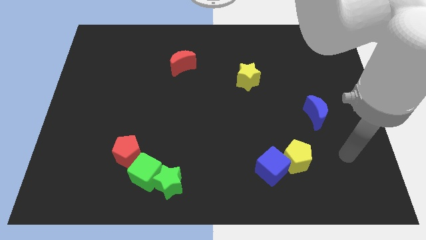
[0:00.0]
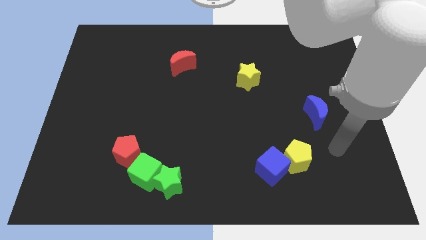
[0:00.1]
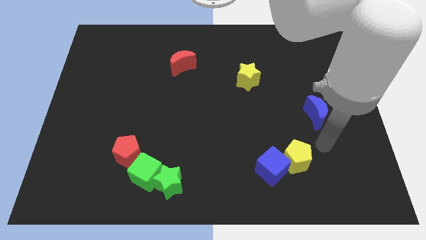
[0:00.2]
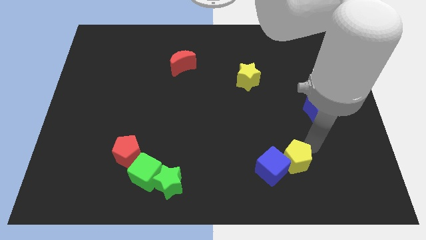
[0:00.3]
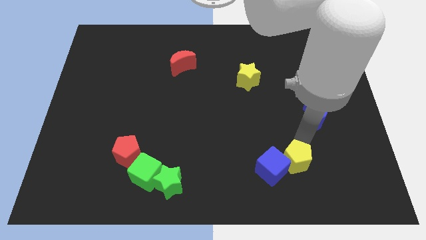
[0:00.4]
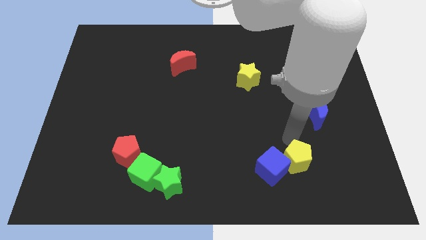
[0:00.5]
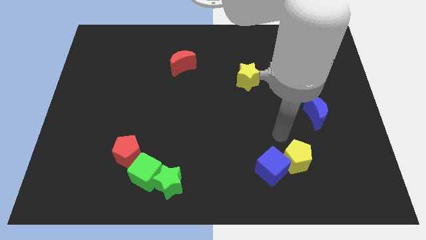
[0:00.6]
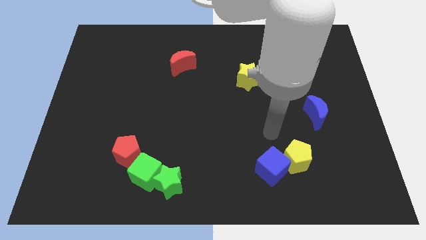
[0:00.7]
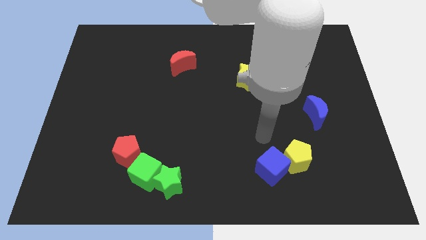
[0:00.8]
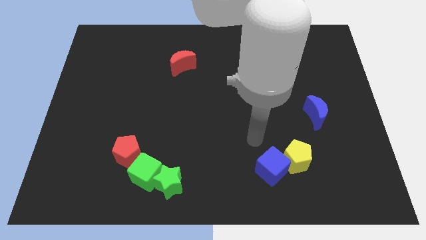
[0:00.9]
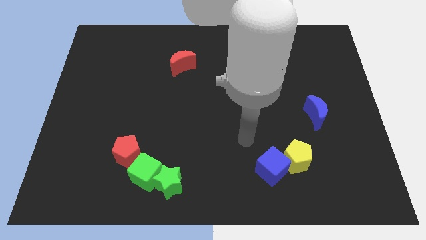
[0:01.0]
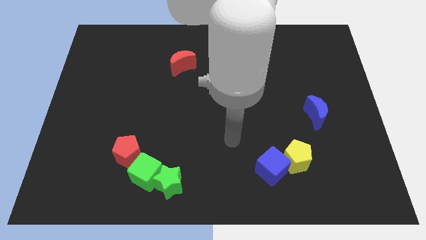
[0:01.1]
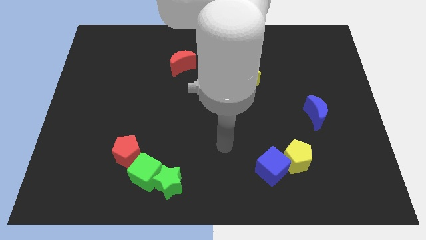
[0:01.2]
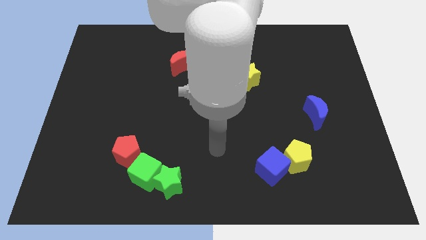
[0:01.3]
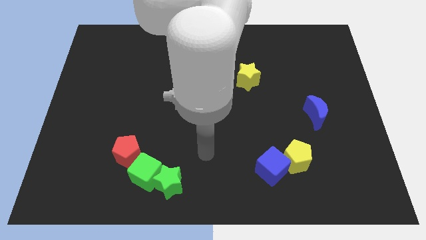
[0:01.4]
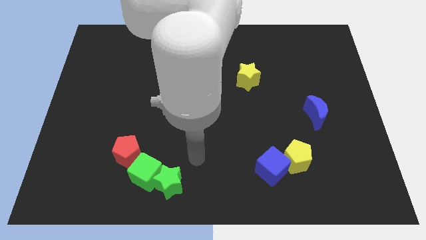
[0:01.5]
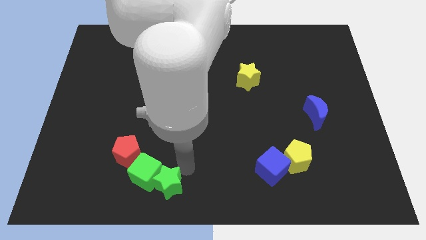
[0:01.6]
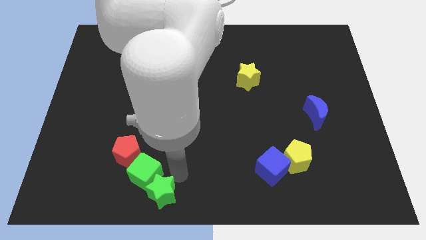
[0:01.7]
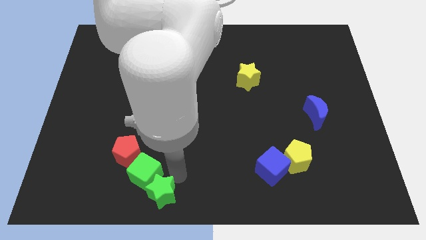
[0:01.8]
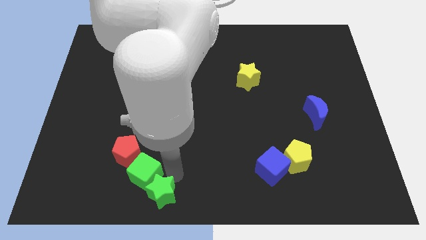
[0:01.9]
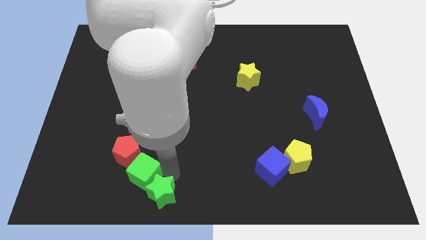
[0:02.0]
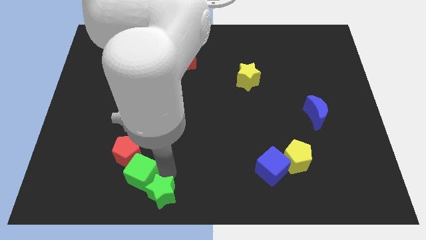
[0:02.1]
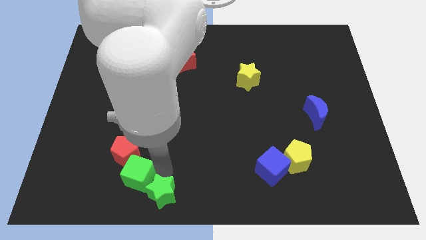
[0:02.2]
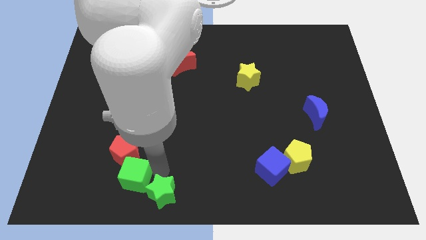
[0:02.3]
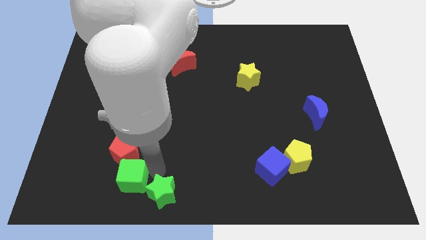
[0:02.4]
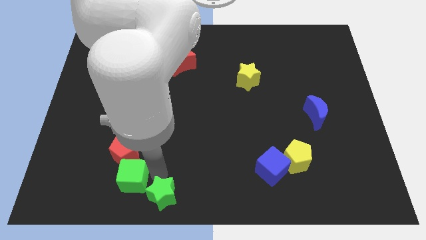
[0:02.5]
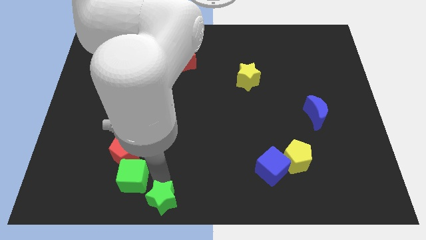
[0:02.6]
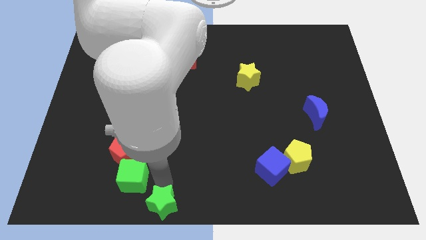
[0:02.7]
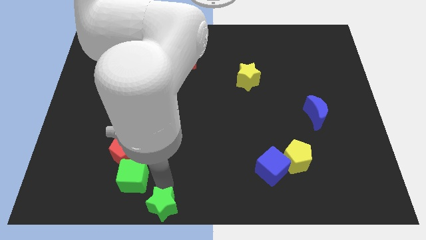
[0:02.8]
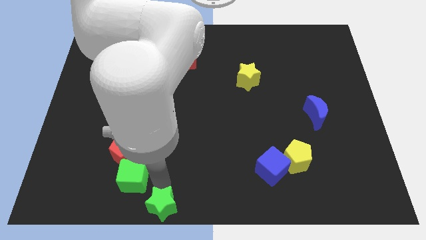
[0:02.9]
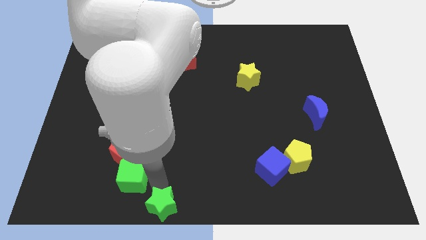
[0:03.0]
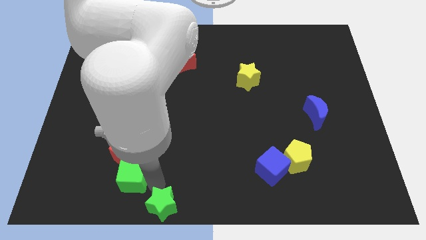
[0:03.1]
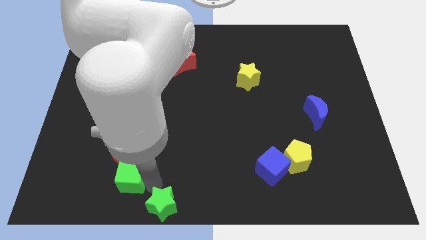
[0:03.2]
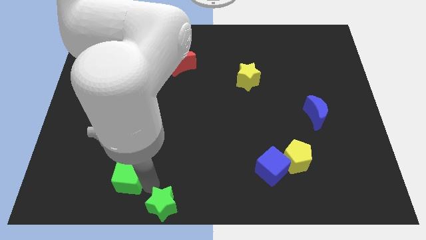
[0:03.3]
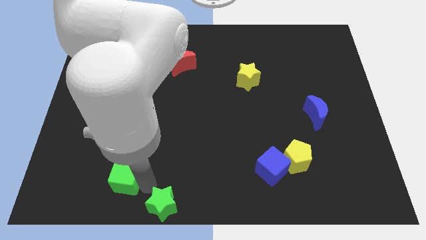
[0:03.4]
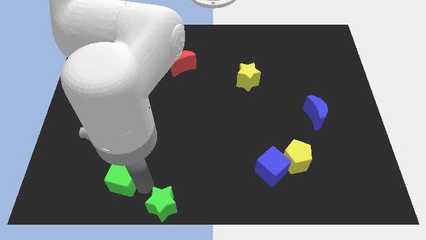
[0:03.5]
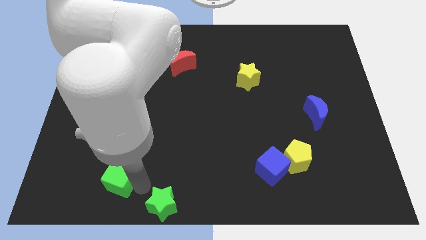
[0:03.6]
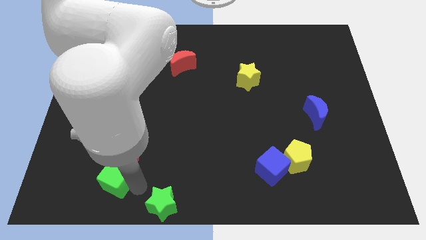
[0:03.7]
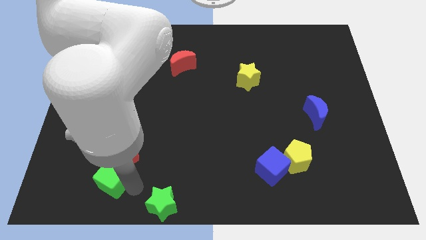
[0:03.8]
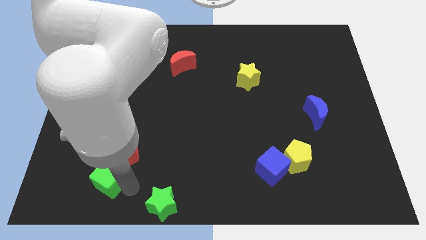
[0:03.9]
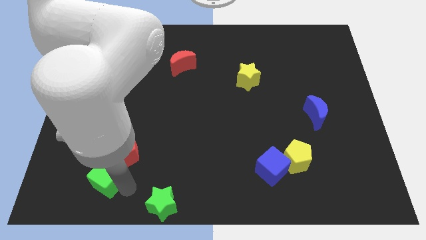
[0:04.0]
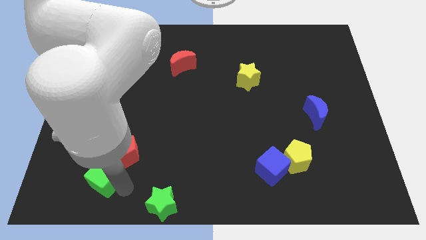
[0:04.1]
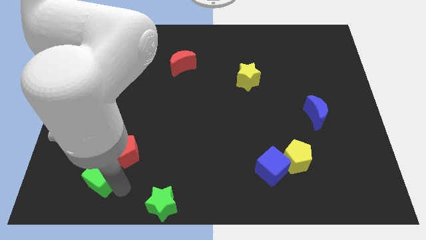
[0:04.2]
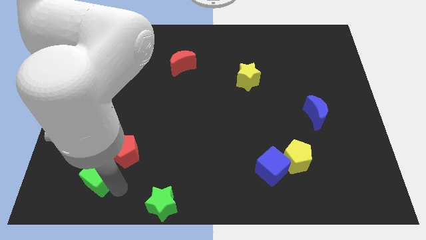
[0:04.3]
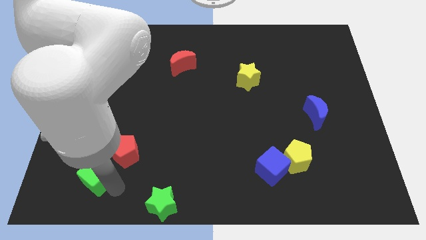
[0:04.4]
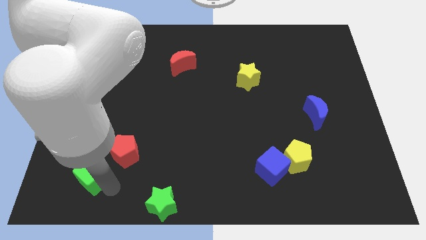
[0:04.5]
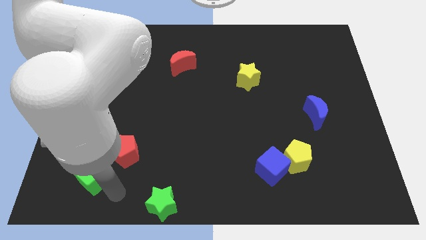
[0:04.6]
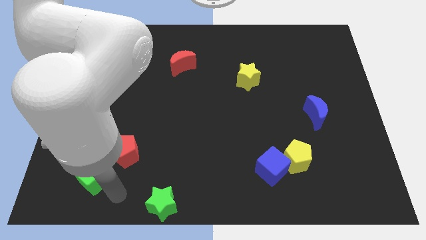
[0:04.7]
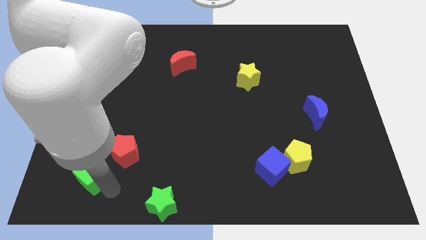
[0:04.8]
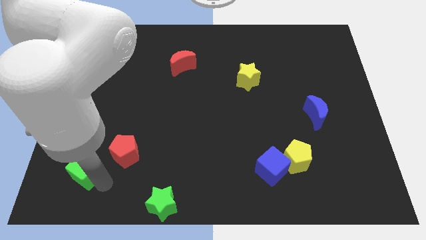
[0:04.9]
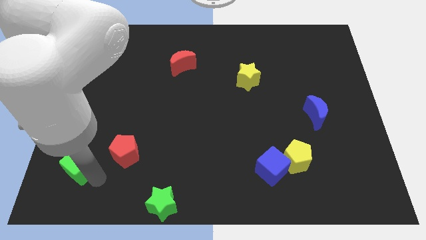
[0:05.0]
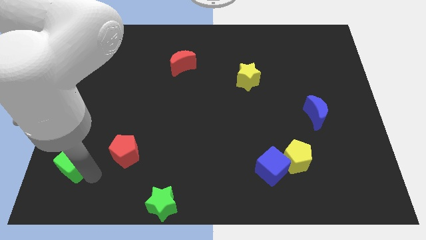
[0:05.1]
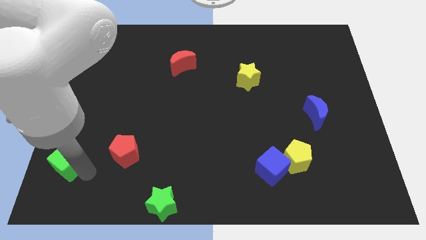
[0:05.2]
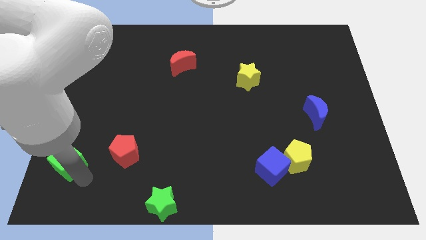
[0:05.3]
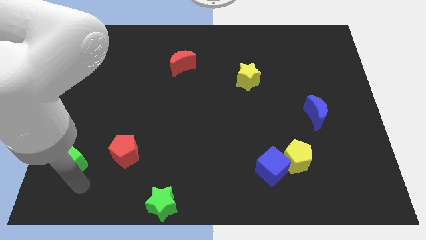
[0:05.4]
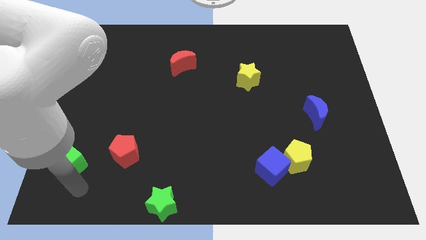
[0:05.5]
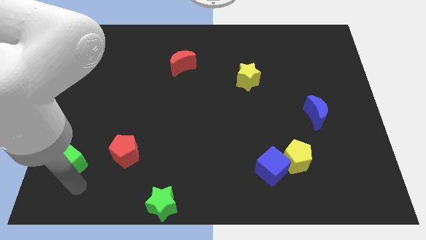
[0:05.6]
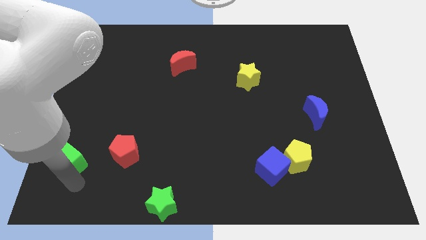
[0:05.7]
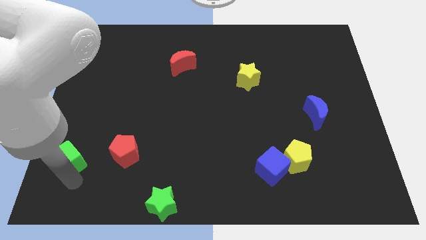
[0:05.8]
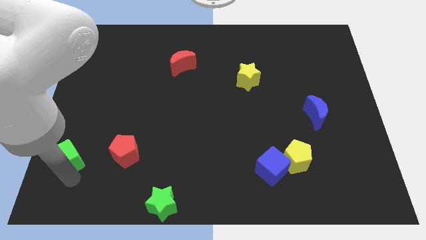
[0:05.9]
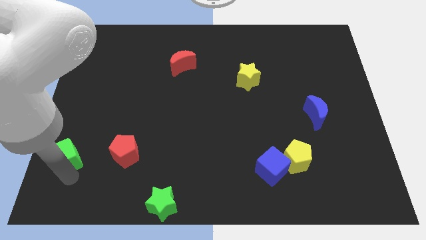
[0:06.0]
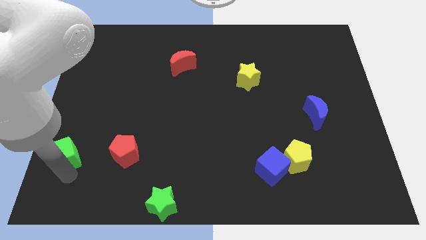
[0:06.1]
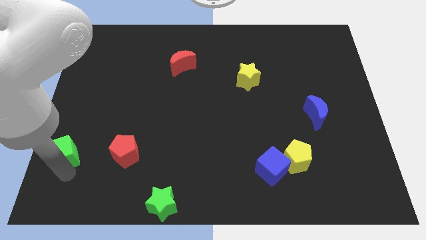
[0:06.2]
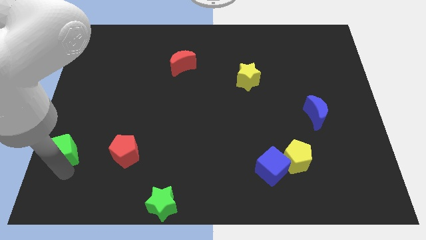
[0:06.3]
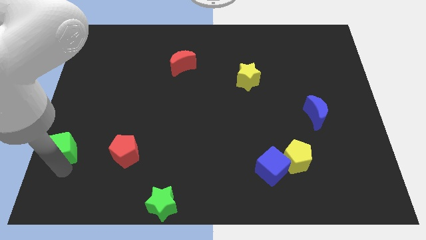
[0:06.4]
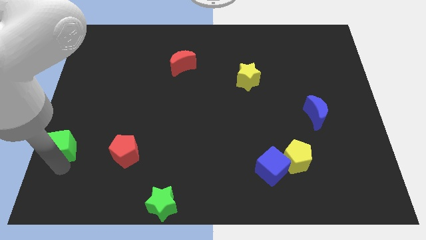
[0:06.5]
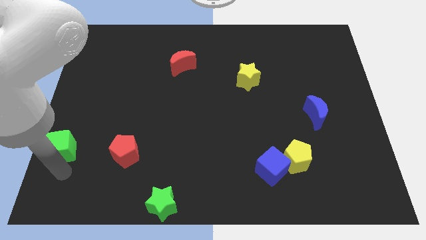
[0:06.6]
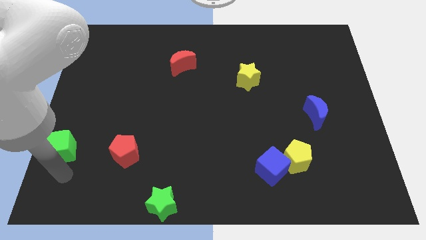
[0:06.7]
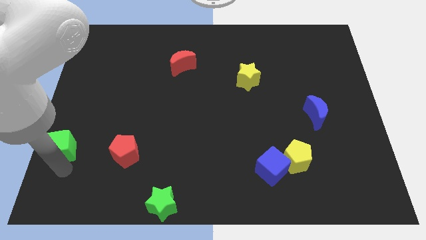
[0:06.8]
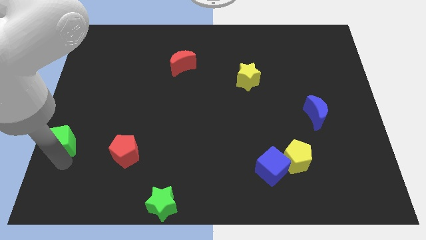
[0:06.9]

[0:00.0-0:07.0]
slide the green cube to the center left
